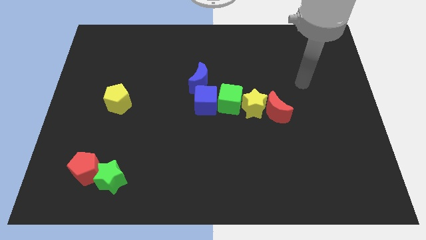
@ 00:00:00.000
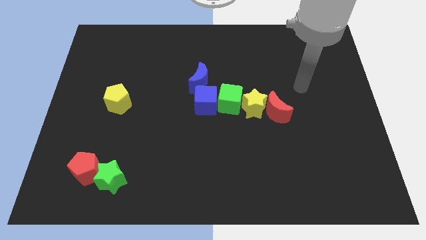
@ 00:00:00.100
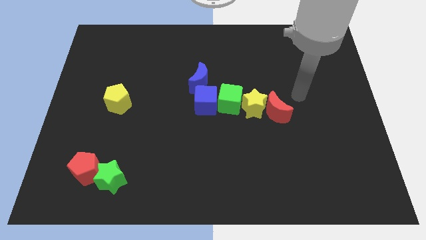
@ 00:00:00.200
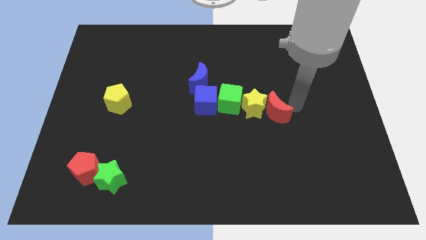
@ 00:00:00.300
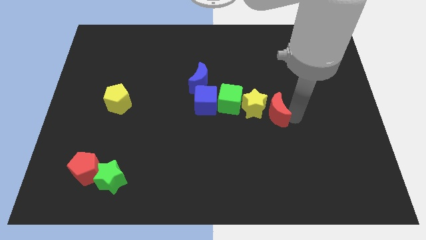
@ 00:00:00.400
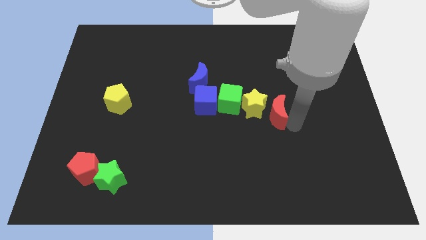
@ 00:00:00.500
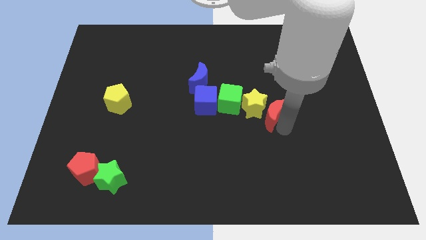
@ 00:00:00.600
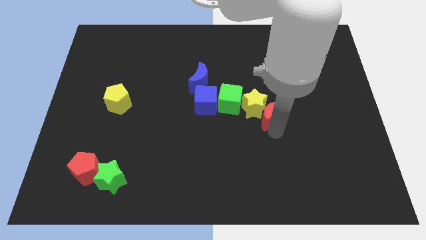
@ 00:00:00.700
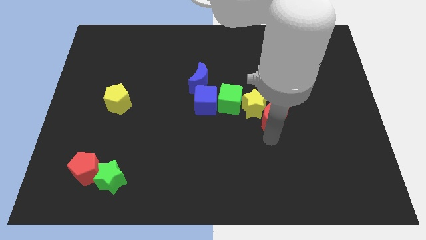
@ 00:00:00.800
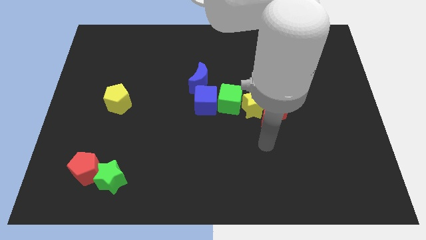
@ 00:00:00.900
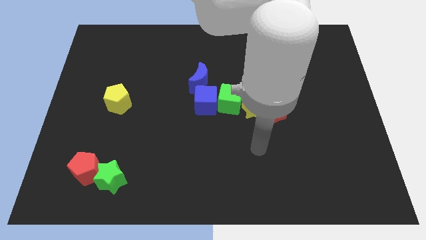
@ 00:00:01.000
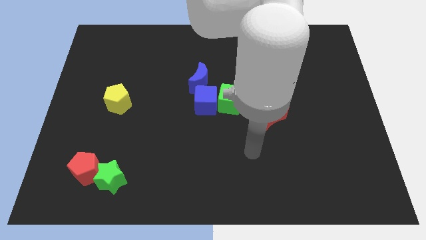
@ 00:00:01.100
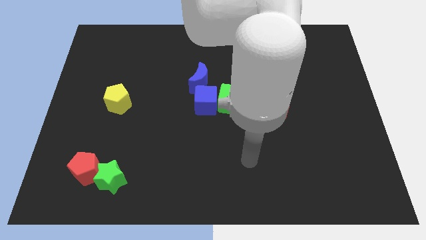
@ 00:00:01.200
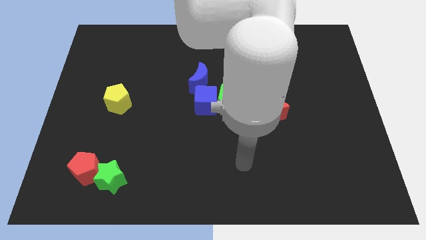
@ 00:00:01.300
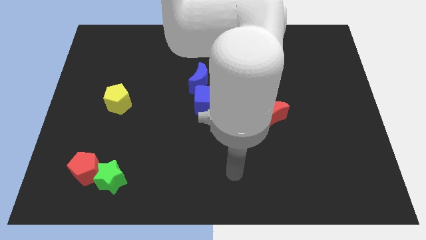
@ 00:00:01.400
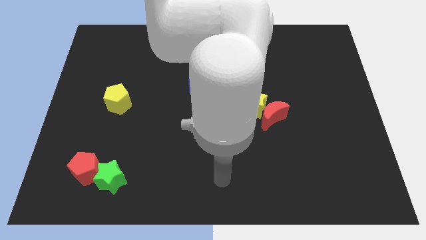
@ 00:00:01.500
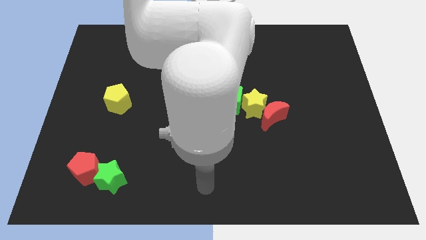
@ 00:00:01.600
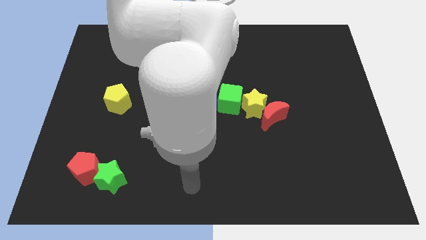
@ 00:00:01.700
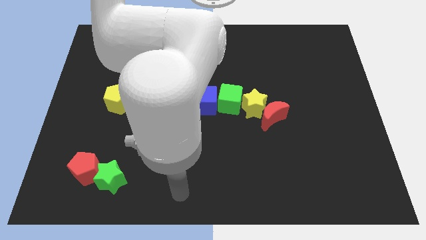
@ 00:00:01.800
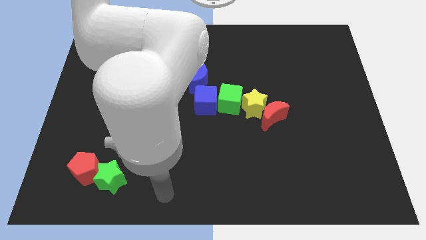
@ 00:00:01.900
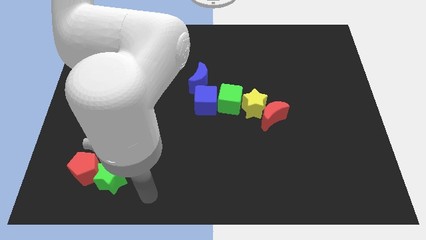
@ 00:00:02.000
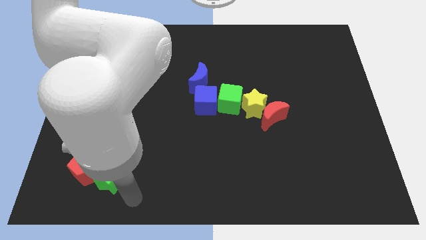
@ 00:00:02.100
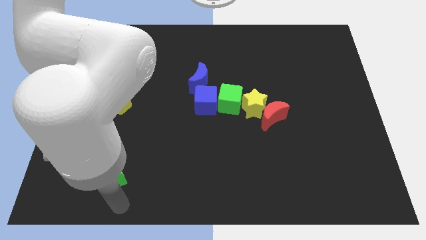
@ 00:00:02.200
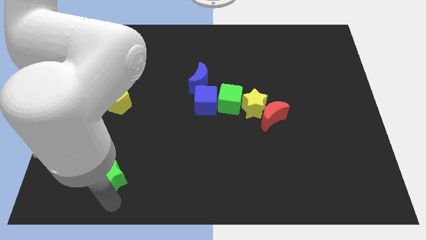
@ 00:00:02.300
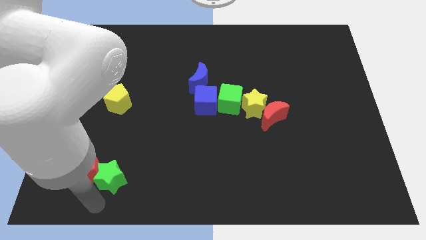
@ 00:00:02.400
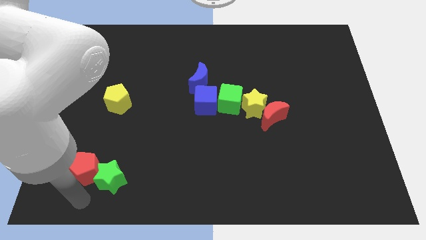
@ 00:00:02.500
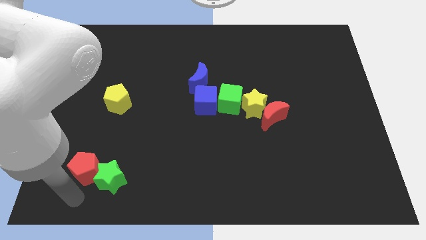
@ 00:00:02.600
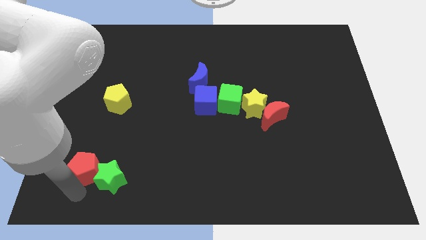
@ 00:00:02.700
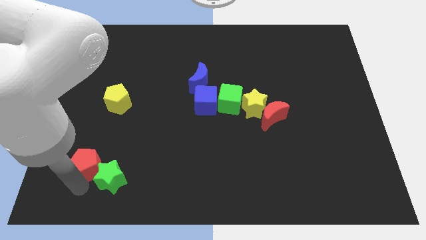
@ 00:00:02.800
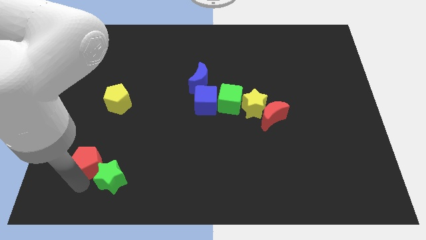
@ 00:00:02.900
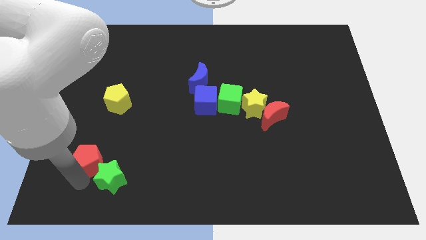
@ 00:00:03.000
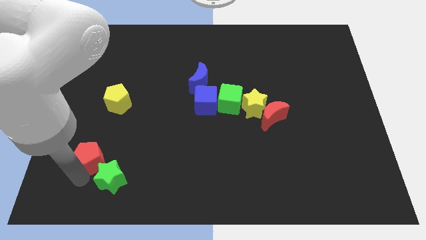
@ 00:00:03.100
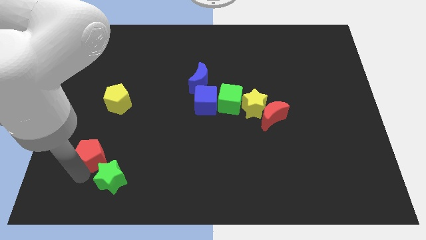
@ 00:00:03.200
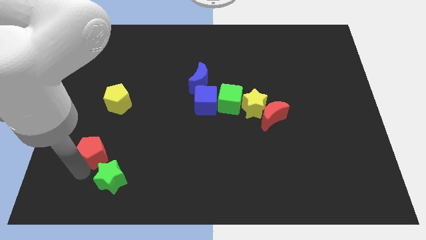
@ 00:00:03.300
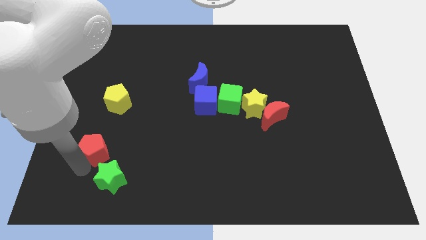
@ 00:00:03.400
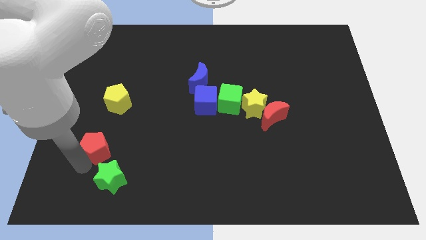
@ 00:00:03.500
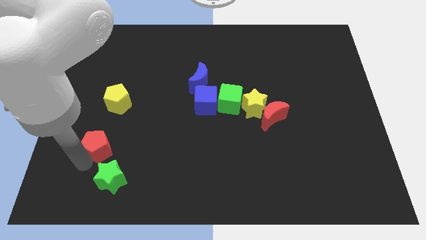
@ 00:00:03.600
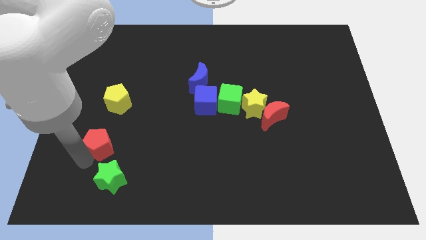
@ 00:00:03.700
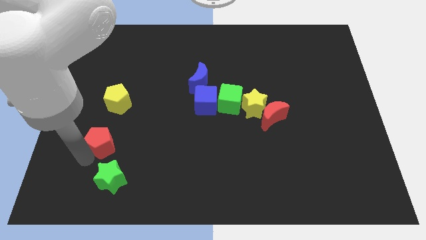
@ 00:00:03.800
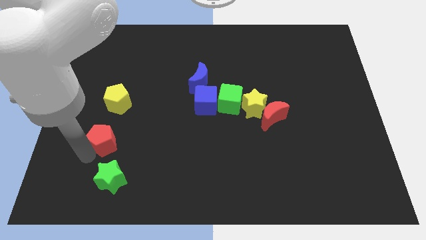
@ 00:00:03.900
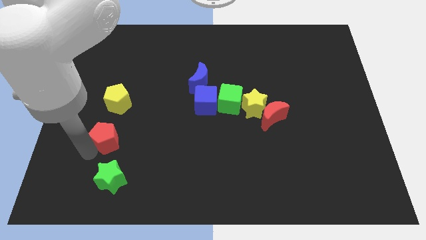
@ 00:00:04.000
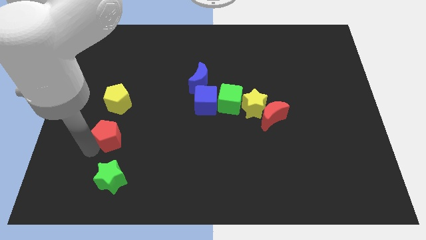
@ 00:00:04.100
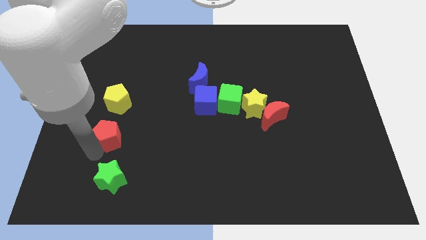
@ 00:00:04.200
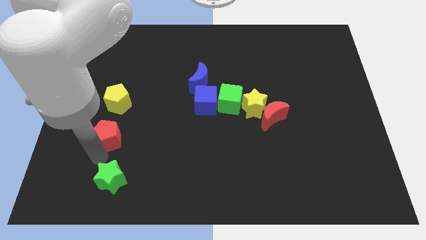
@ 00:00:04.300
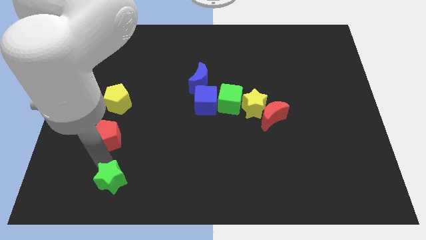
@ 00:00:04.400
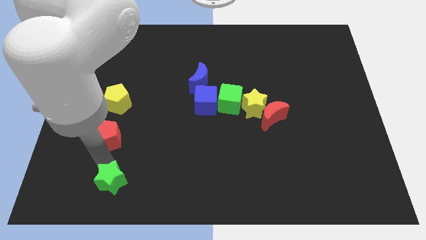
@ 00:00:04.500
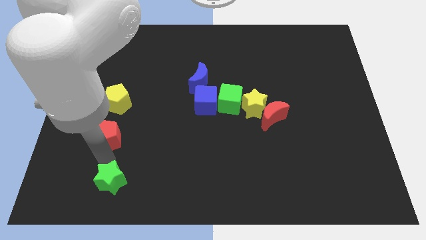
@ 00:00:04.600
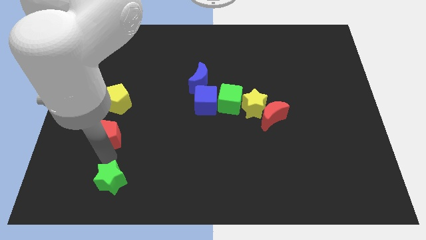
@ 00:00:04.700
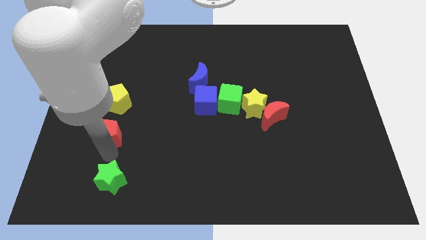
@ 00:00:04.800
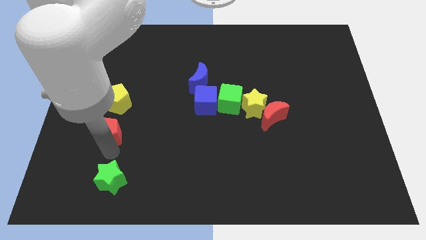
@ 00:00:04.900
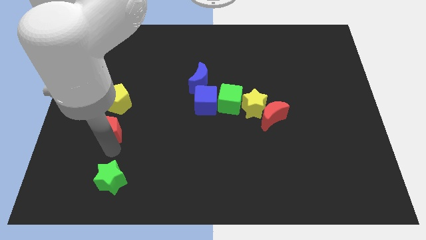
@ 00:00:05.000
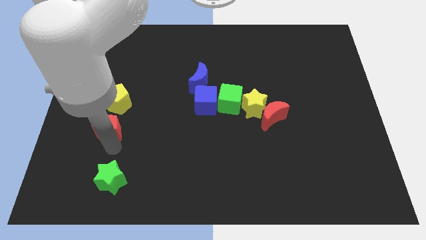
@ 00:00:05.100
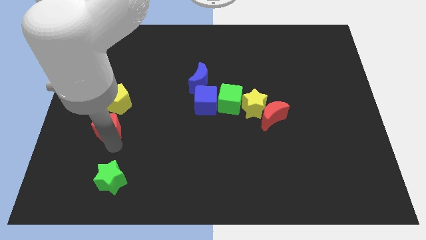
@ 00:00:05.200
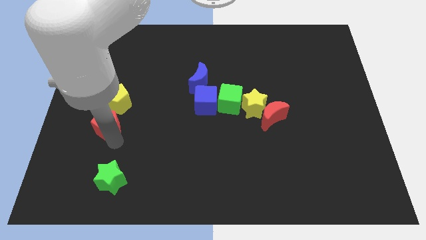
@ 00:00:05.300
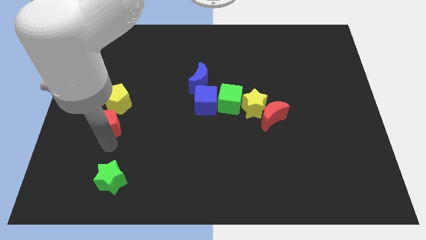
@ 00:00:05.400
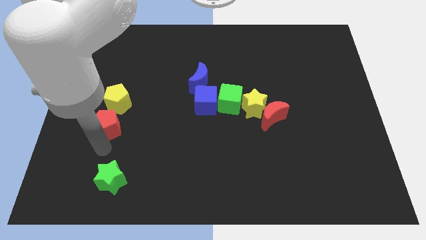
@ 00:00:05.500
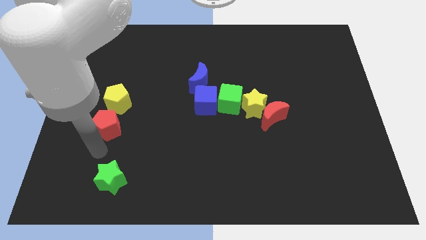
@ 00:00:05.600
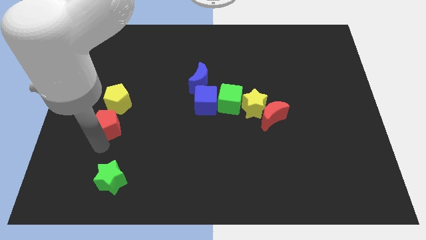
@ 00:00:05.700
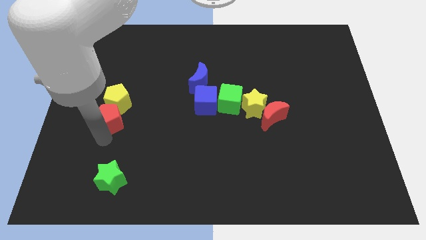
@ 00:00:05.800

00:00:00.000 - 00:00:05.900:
put the red pentagon to the yellow pentagon

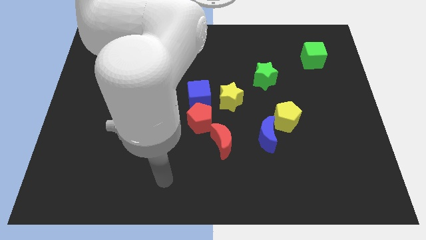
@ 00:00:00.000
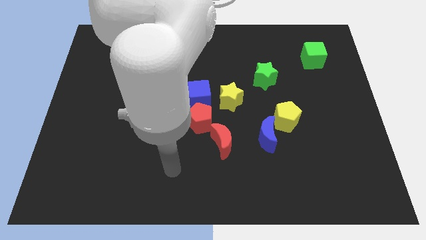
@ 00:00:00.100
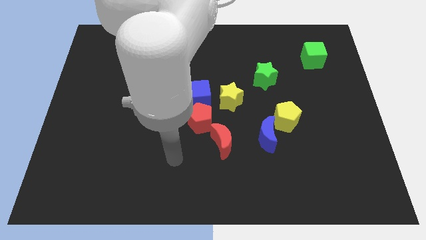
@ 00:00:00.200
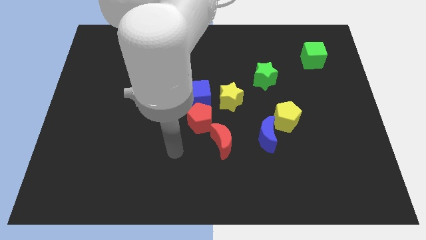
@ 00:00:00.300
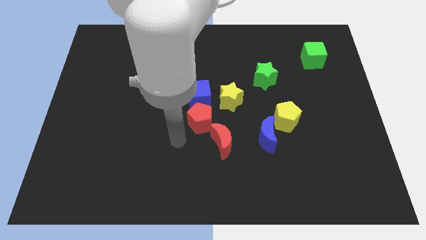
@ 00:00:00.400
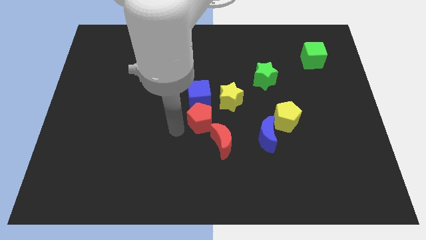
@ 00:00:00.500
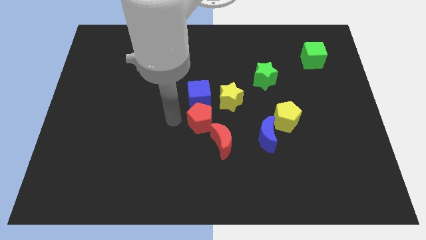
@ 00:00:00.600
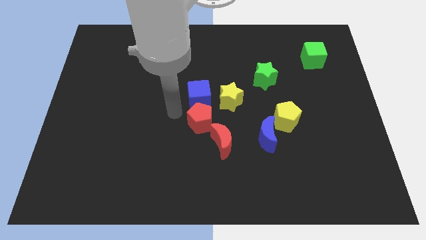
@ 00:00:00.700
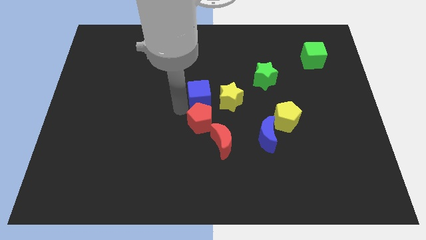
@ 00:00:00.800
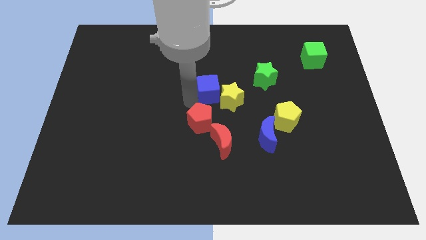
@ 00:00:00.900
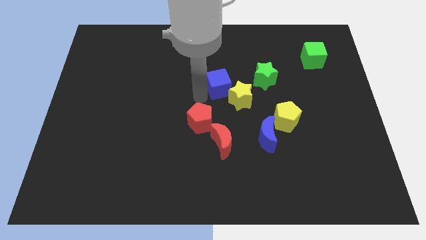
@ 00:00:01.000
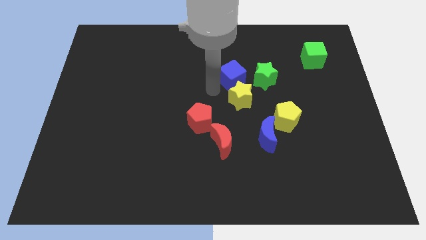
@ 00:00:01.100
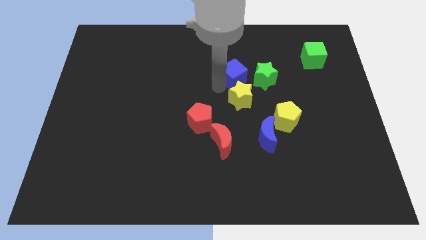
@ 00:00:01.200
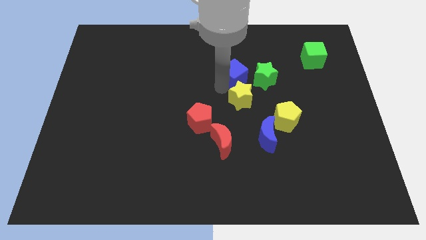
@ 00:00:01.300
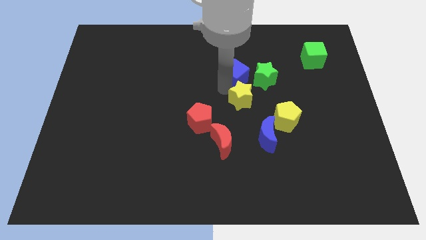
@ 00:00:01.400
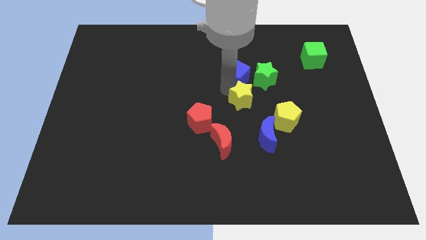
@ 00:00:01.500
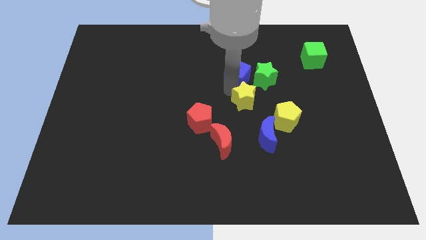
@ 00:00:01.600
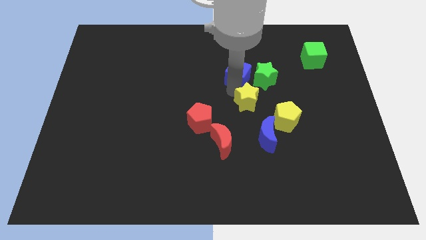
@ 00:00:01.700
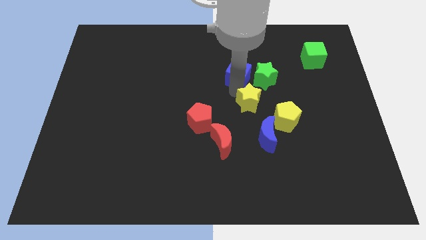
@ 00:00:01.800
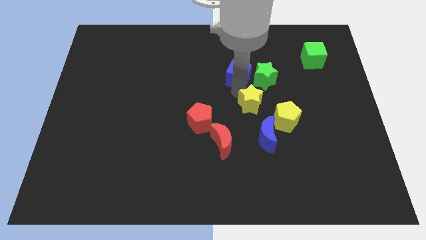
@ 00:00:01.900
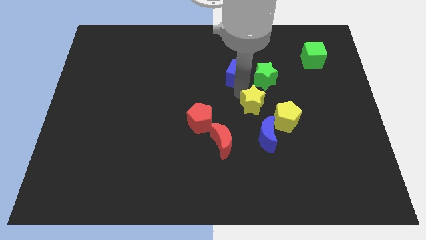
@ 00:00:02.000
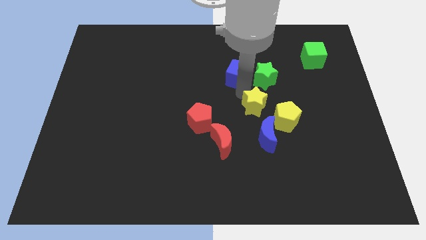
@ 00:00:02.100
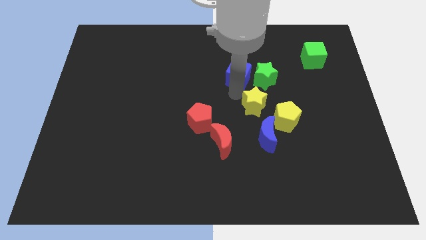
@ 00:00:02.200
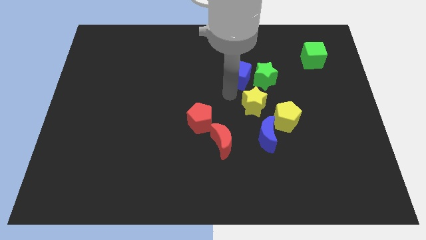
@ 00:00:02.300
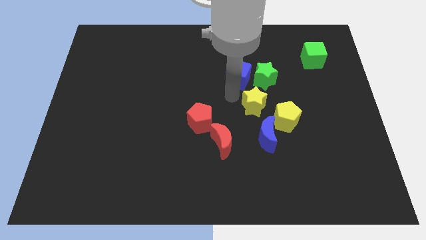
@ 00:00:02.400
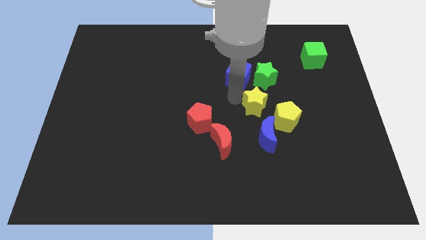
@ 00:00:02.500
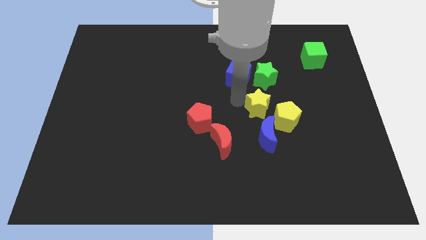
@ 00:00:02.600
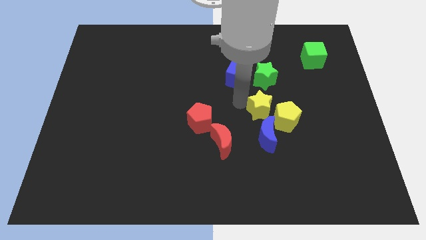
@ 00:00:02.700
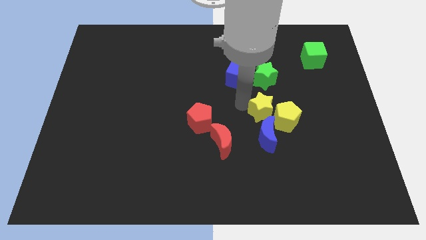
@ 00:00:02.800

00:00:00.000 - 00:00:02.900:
move the yellow star to the yellow pentagon
